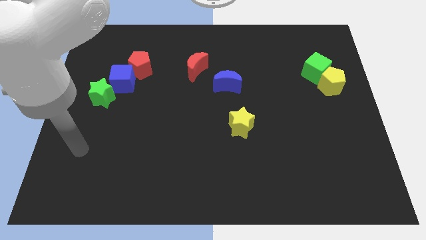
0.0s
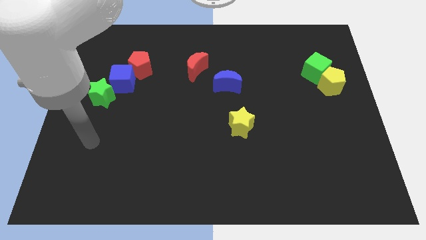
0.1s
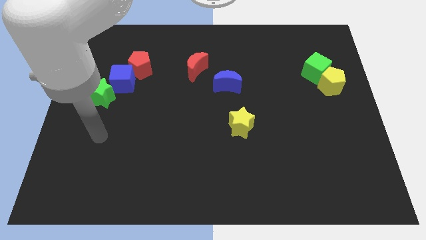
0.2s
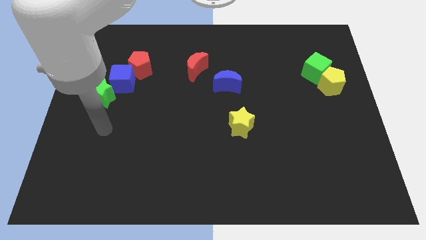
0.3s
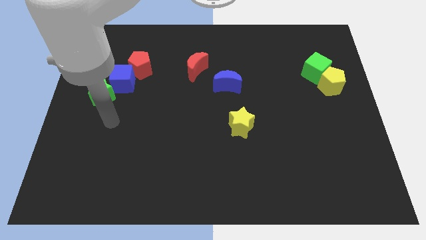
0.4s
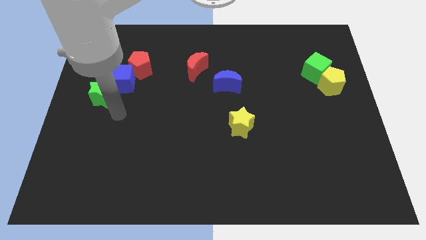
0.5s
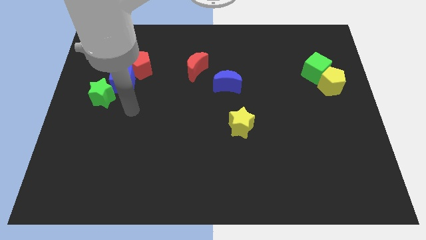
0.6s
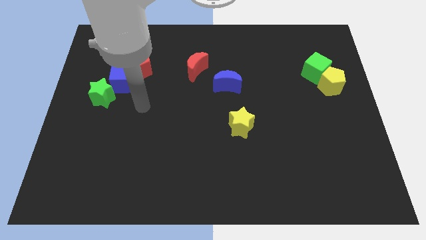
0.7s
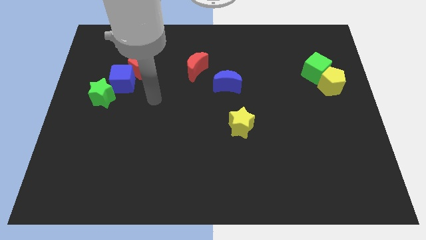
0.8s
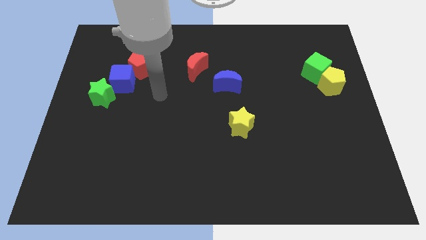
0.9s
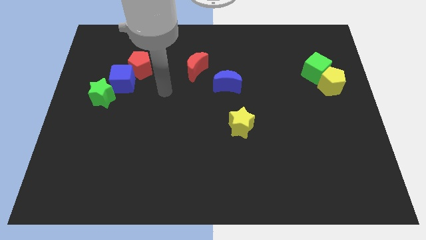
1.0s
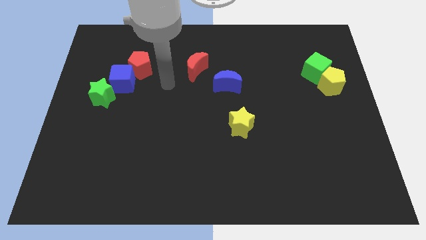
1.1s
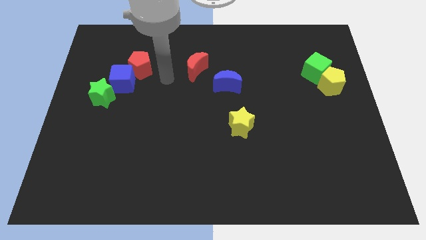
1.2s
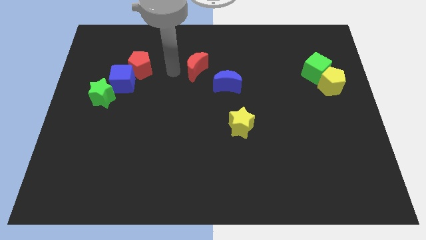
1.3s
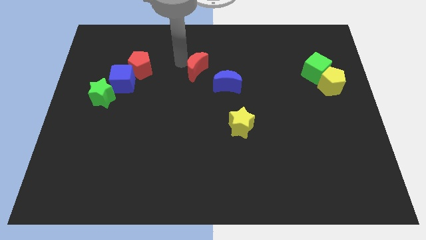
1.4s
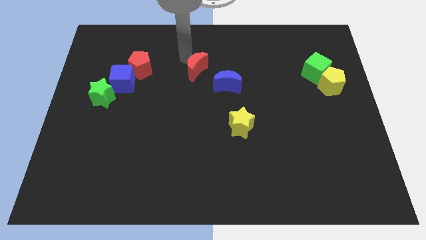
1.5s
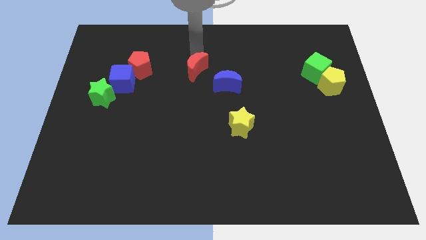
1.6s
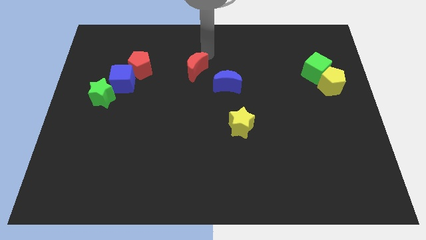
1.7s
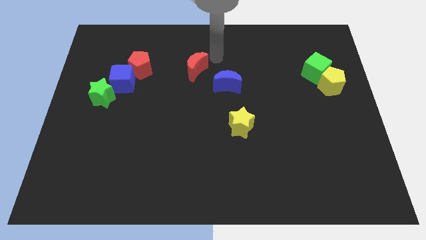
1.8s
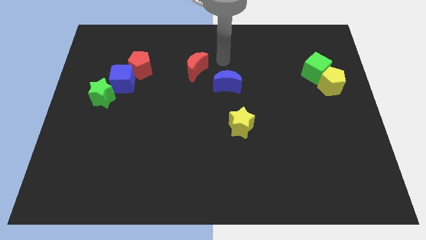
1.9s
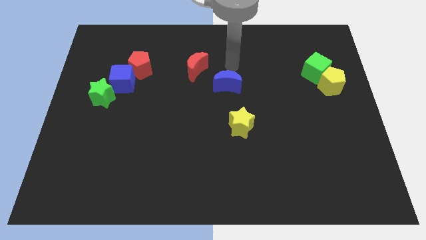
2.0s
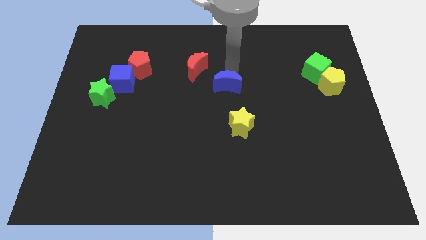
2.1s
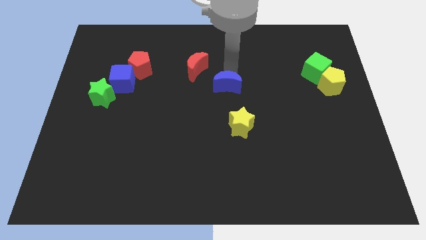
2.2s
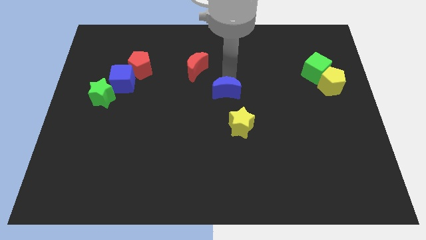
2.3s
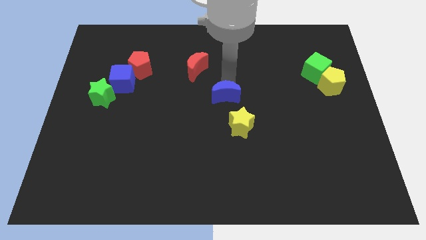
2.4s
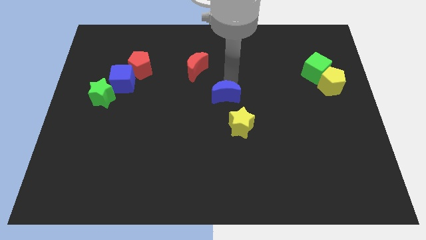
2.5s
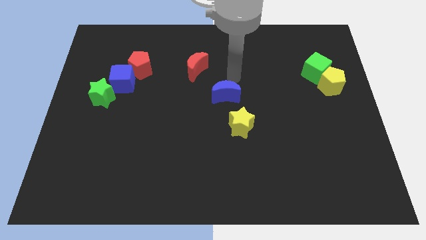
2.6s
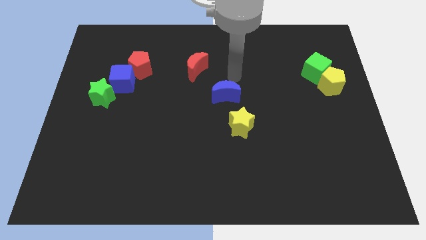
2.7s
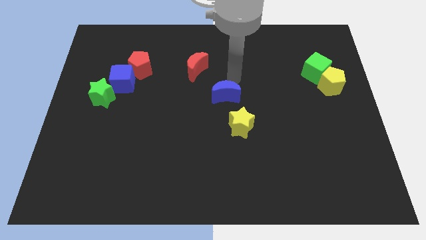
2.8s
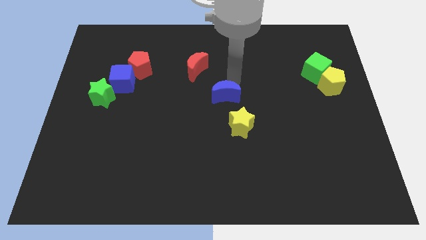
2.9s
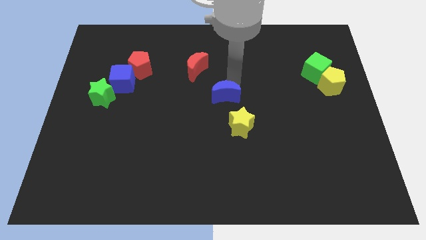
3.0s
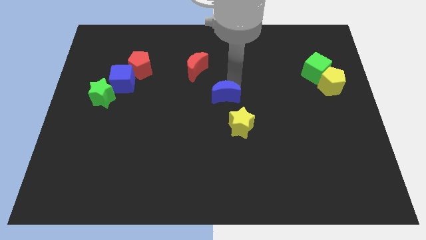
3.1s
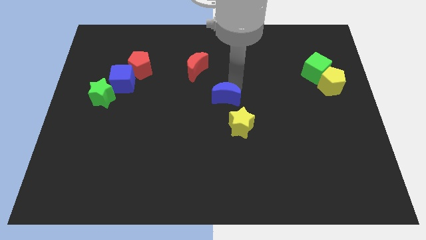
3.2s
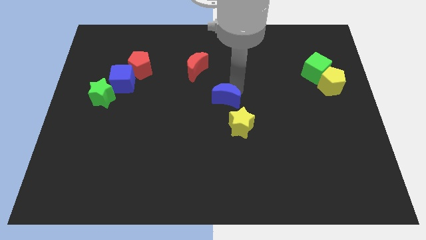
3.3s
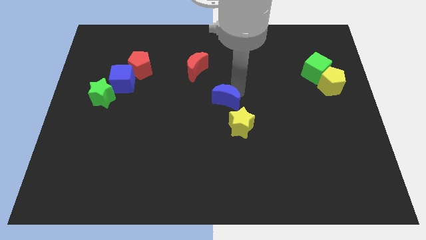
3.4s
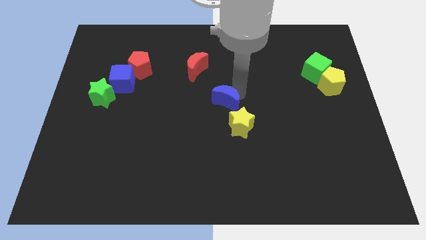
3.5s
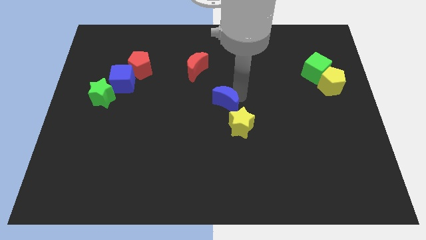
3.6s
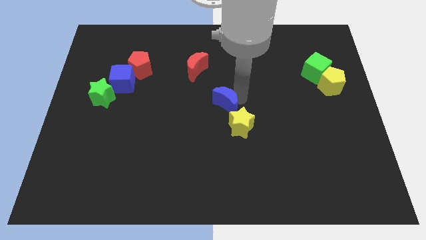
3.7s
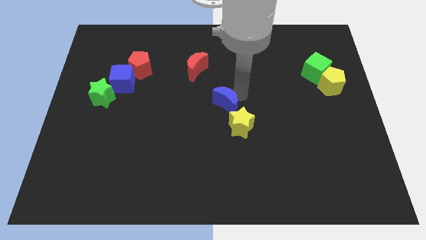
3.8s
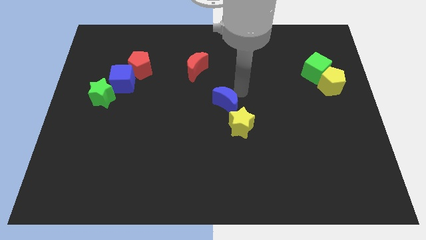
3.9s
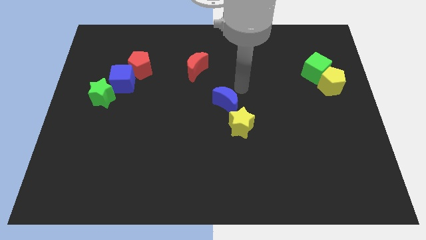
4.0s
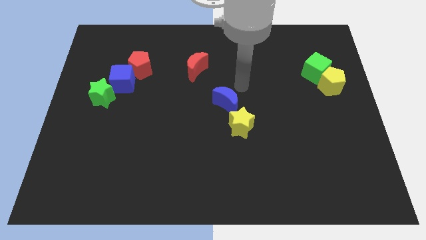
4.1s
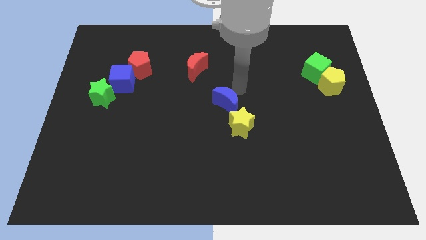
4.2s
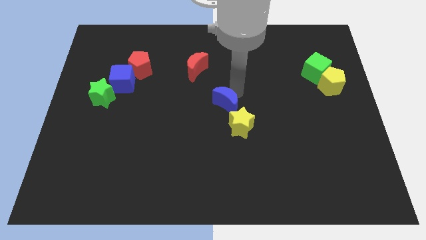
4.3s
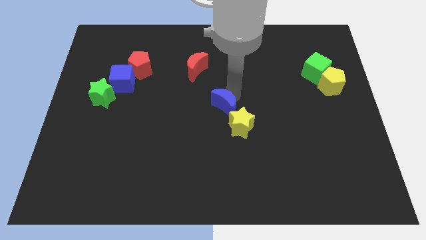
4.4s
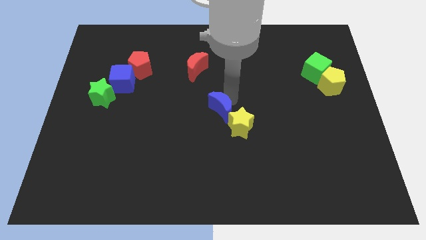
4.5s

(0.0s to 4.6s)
slide the blue moon down somewhat

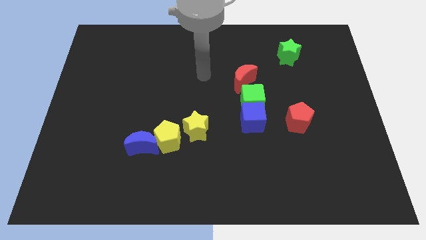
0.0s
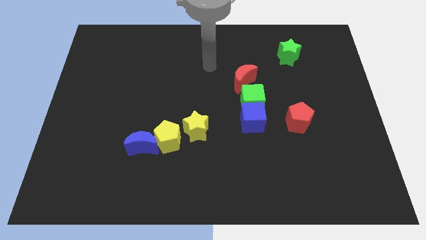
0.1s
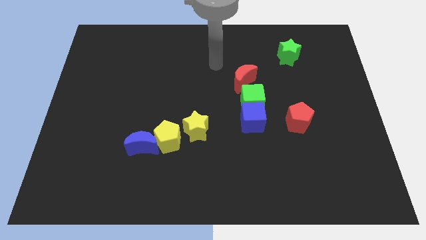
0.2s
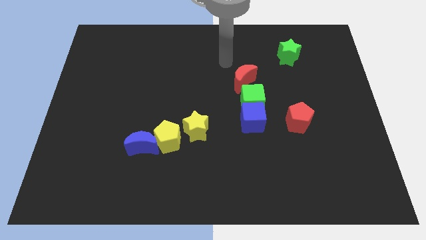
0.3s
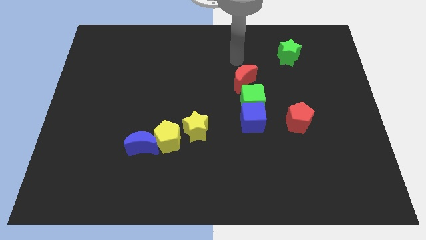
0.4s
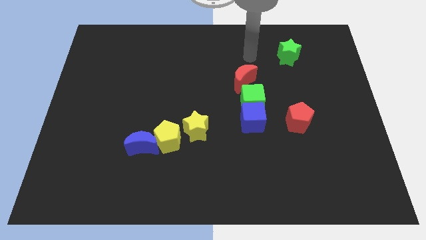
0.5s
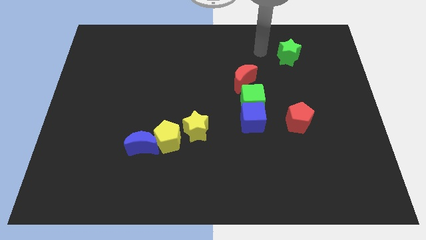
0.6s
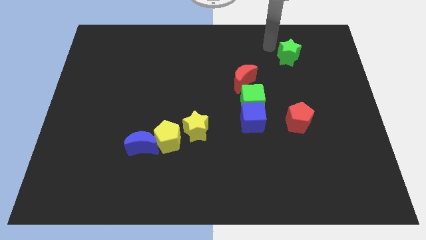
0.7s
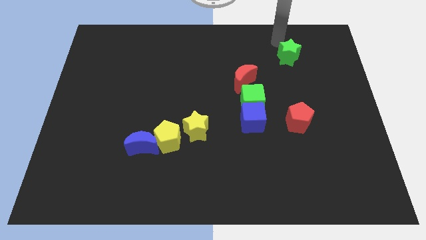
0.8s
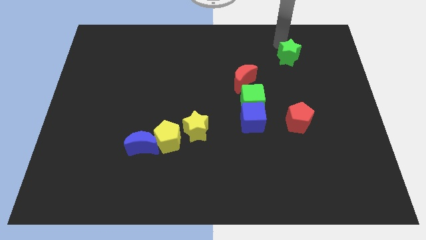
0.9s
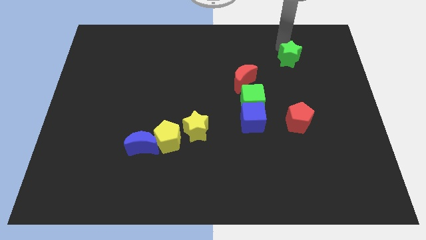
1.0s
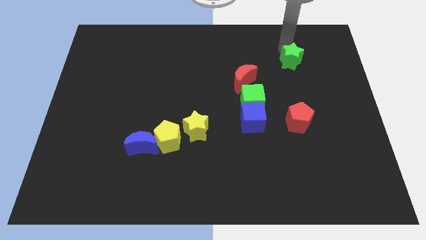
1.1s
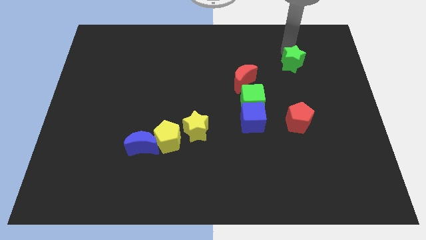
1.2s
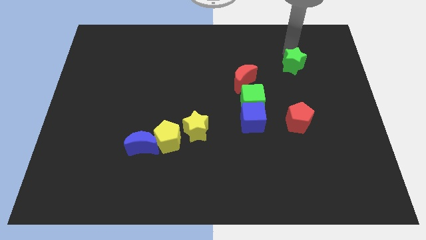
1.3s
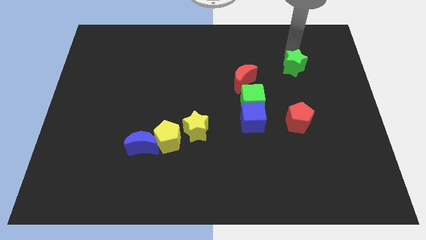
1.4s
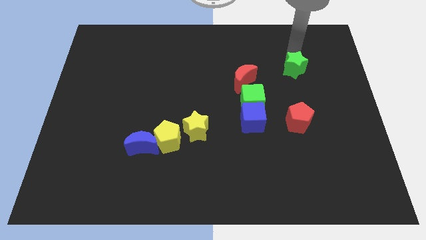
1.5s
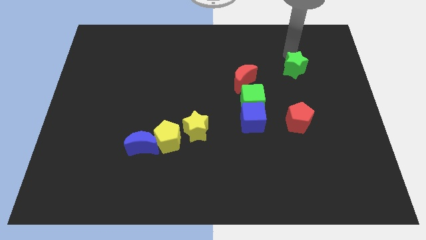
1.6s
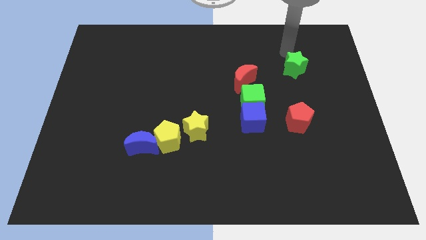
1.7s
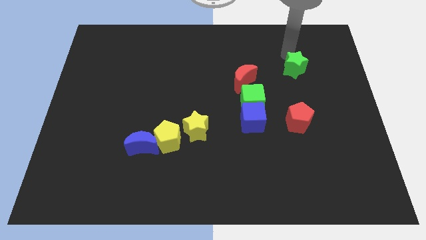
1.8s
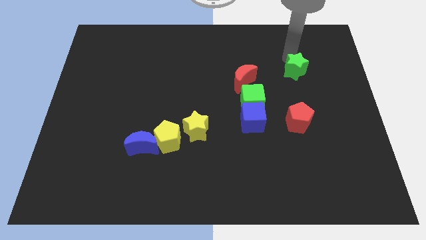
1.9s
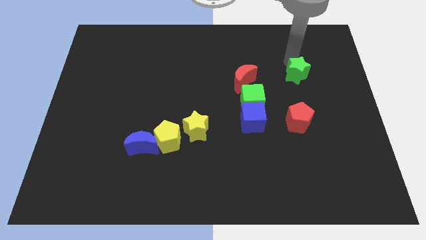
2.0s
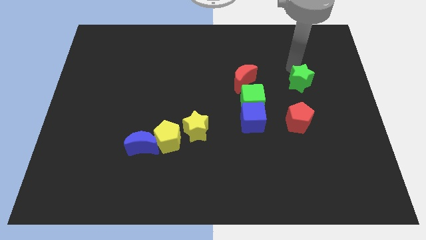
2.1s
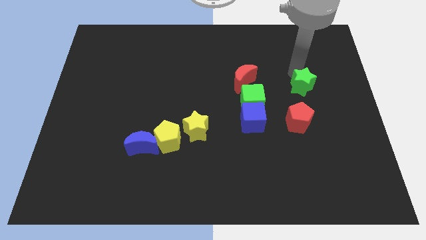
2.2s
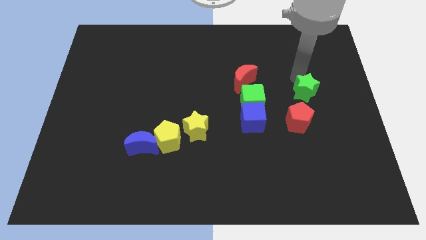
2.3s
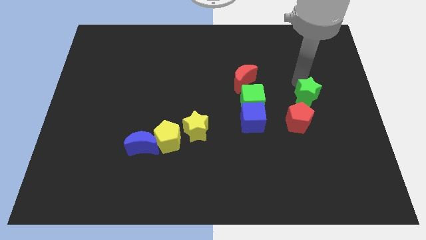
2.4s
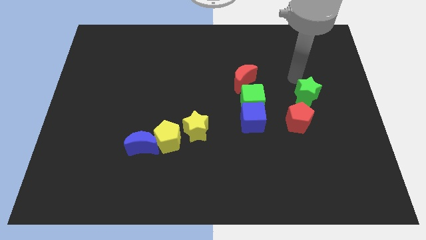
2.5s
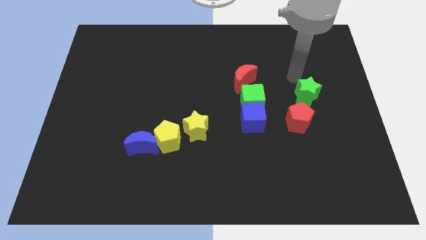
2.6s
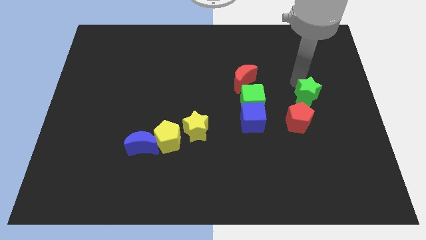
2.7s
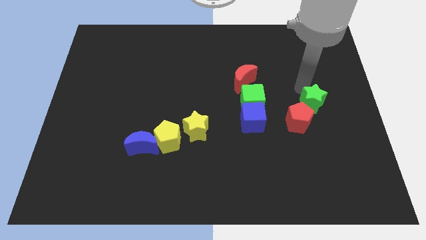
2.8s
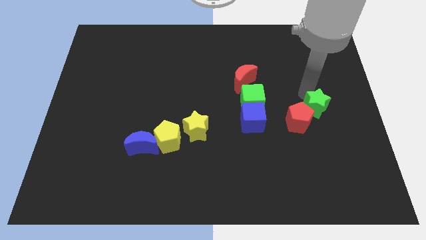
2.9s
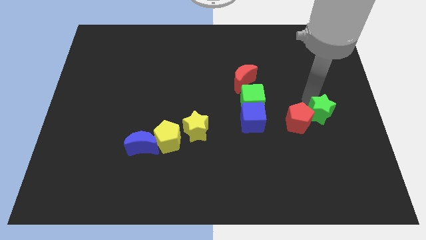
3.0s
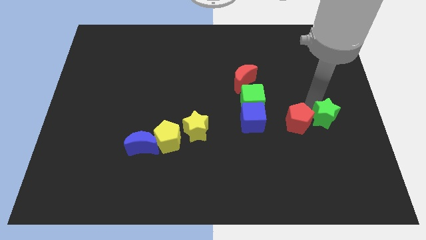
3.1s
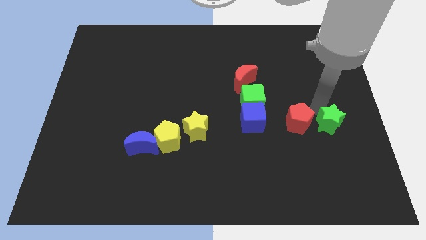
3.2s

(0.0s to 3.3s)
push the green star down

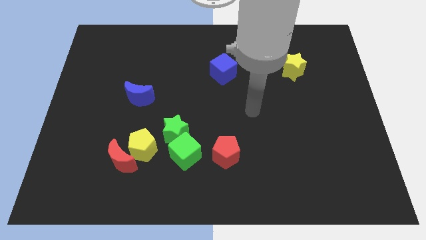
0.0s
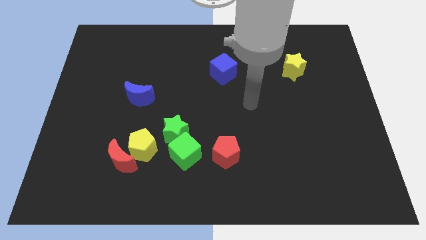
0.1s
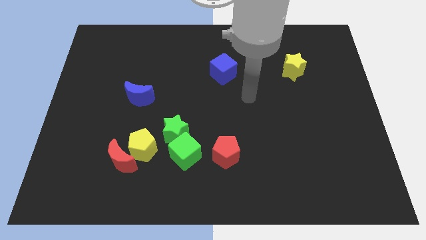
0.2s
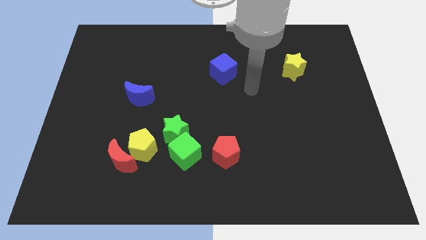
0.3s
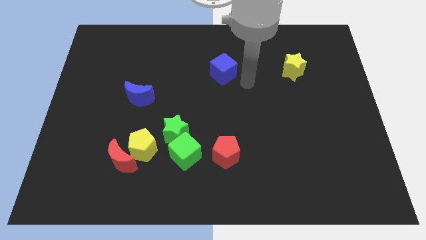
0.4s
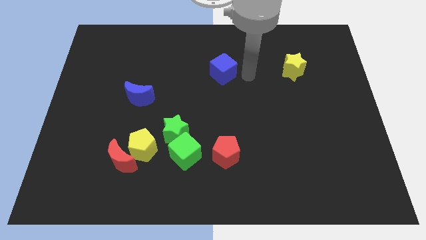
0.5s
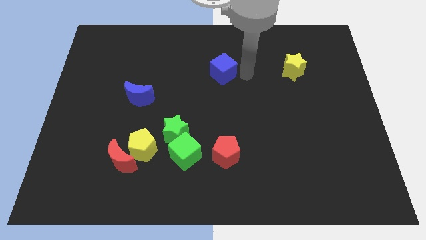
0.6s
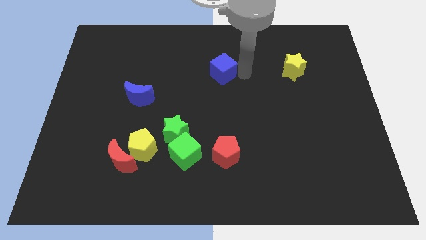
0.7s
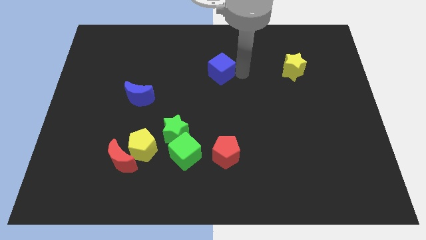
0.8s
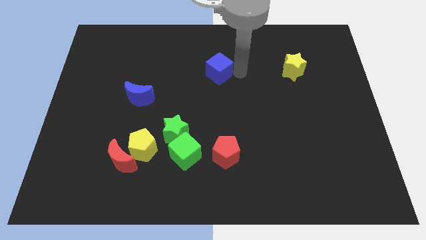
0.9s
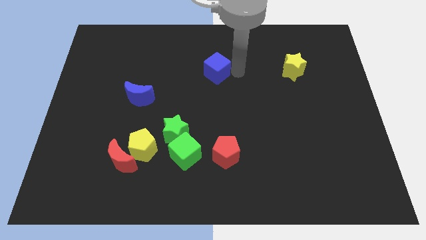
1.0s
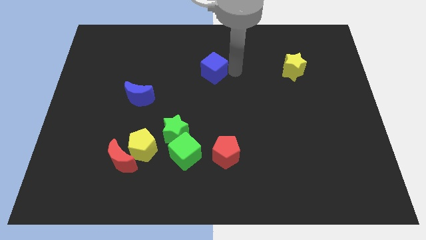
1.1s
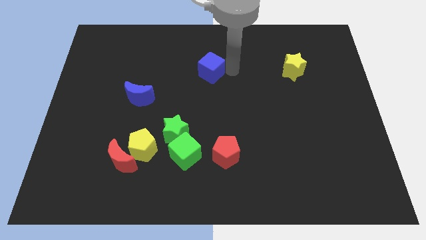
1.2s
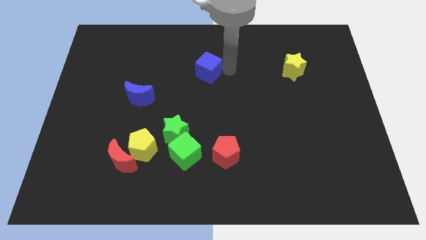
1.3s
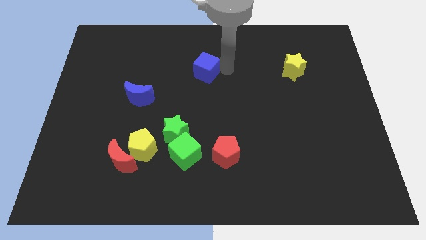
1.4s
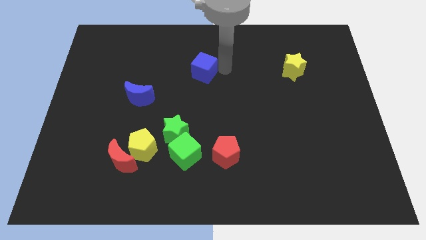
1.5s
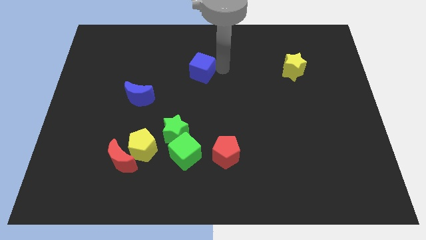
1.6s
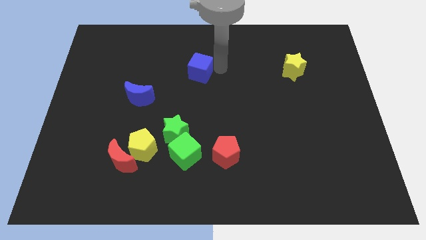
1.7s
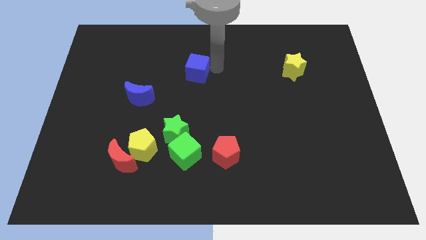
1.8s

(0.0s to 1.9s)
slightly slide the blue cube left
